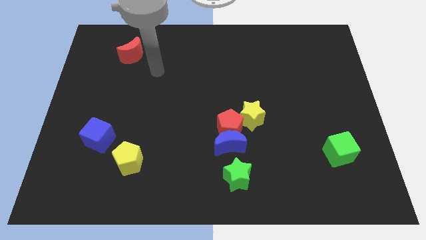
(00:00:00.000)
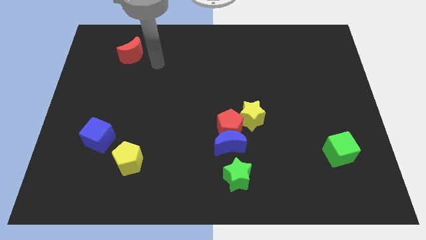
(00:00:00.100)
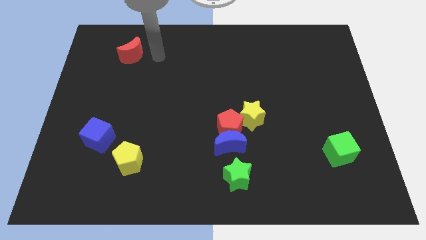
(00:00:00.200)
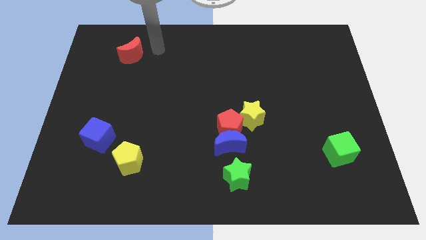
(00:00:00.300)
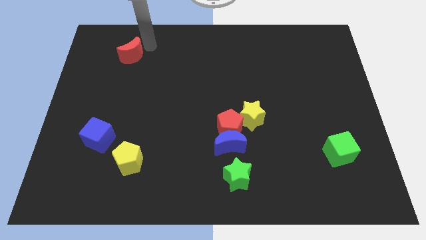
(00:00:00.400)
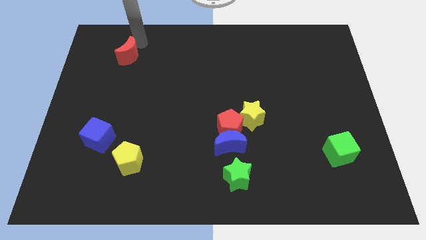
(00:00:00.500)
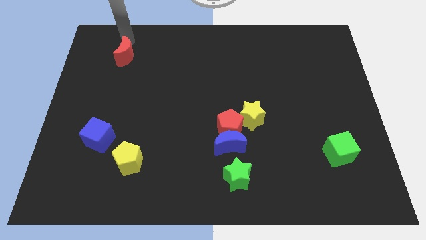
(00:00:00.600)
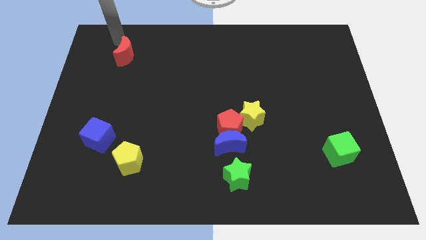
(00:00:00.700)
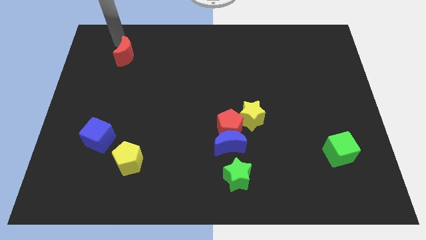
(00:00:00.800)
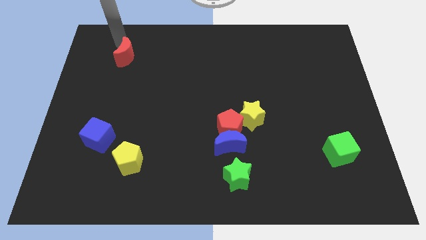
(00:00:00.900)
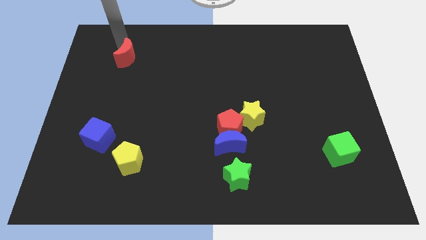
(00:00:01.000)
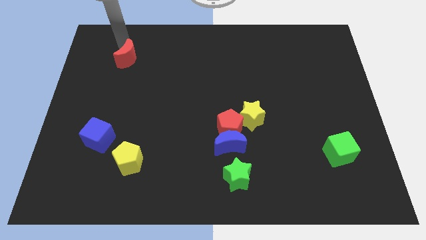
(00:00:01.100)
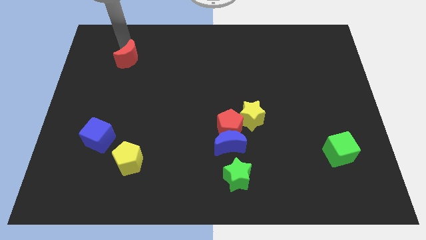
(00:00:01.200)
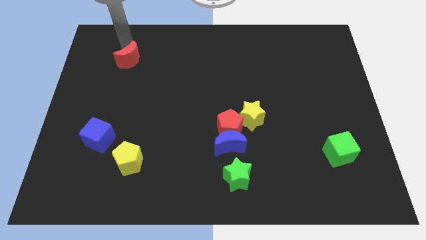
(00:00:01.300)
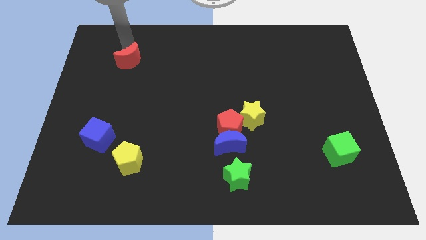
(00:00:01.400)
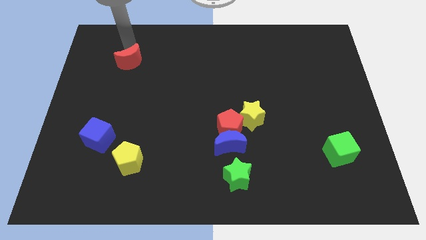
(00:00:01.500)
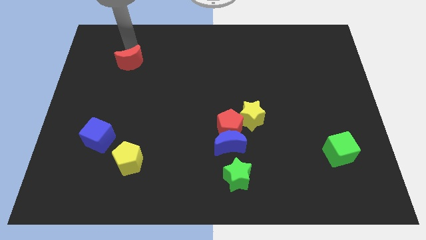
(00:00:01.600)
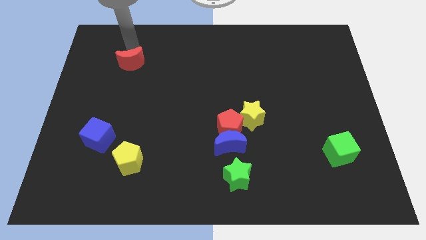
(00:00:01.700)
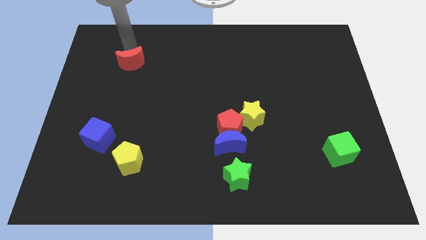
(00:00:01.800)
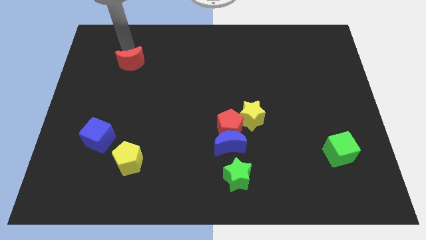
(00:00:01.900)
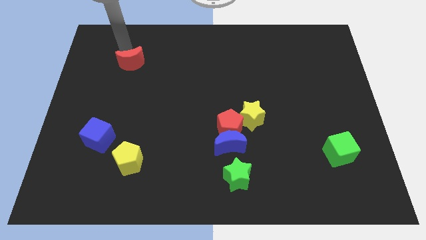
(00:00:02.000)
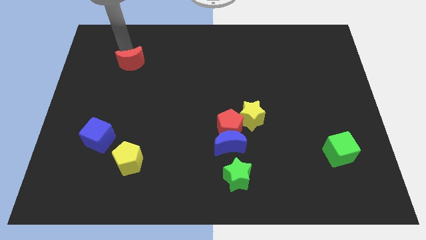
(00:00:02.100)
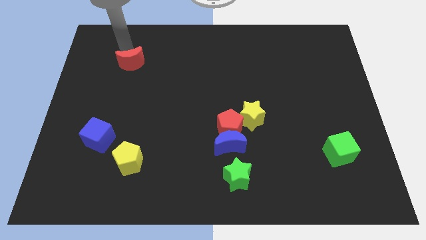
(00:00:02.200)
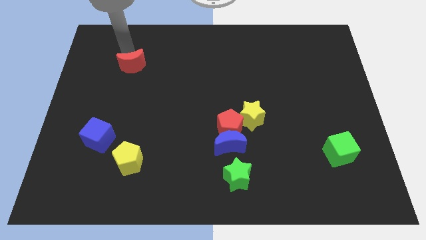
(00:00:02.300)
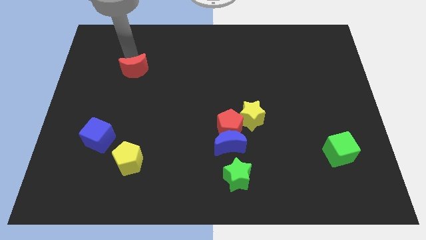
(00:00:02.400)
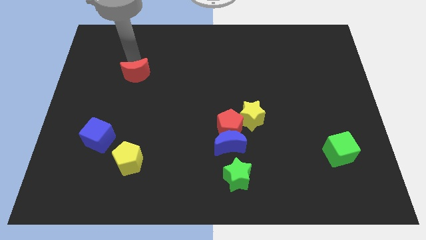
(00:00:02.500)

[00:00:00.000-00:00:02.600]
push the red moon down somewhat

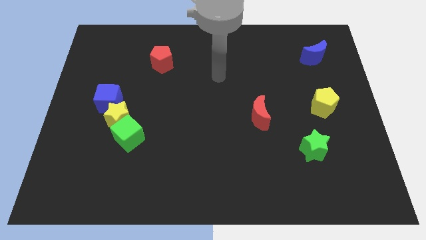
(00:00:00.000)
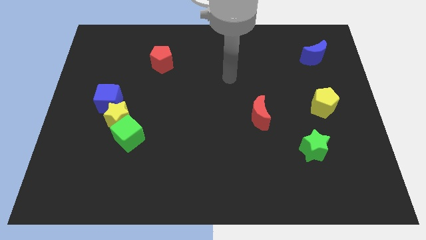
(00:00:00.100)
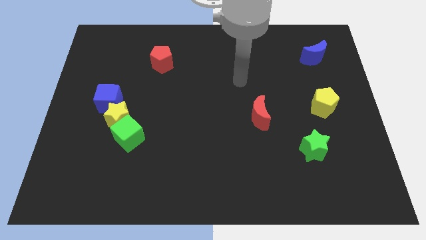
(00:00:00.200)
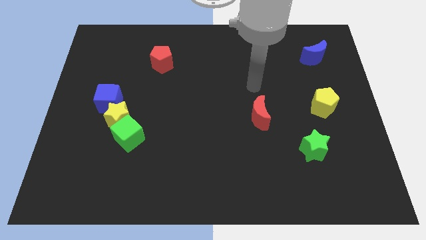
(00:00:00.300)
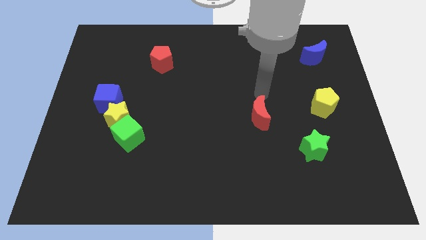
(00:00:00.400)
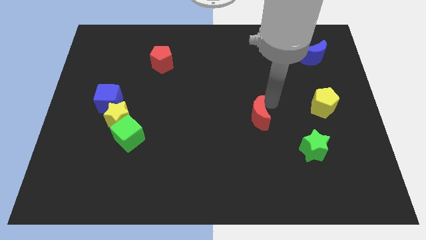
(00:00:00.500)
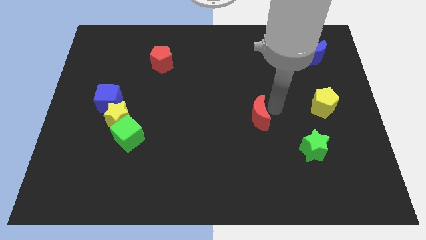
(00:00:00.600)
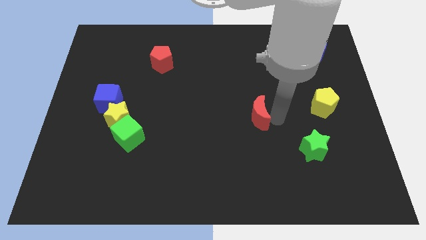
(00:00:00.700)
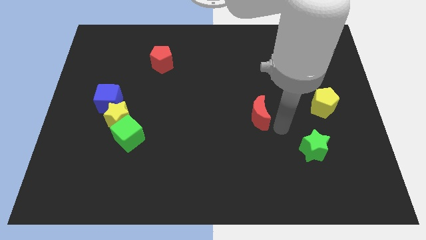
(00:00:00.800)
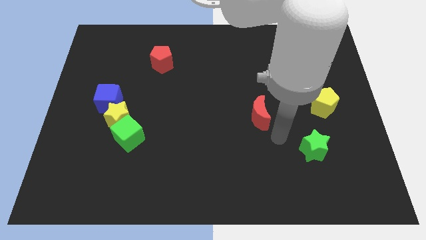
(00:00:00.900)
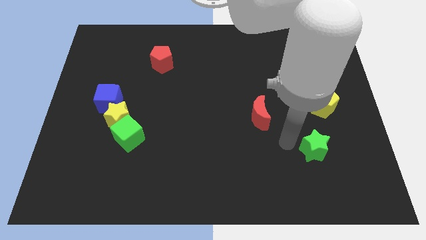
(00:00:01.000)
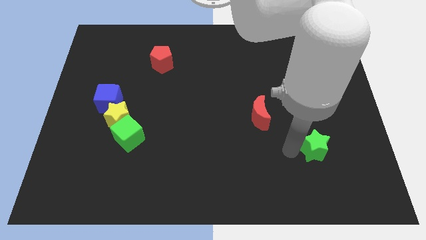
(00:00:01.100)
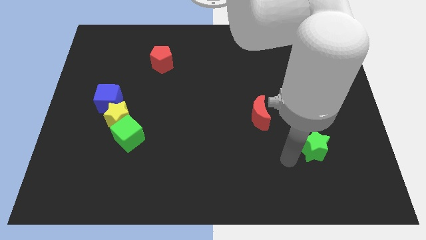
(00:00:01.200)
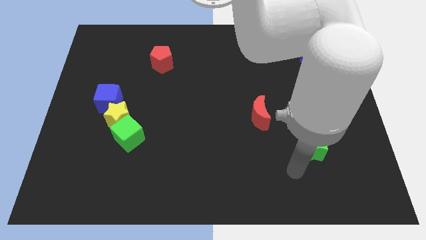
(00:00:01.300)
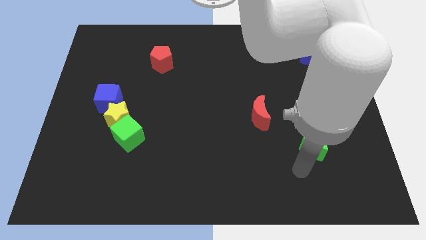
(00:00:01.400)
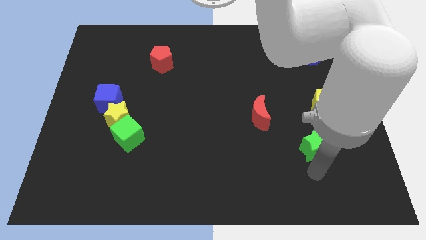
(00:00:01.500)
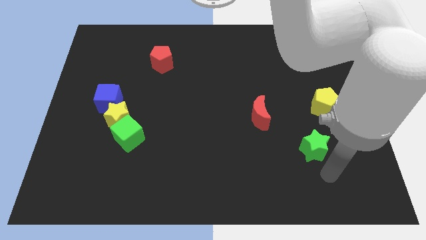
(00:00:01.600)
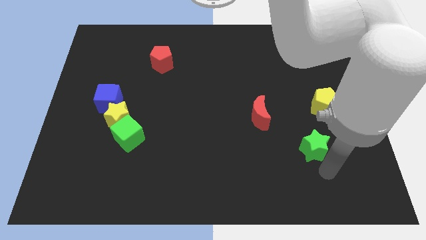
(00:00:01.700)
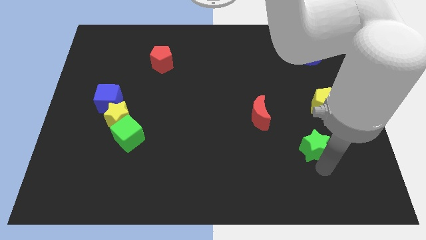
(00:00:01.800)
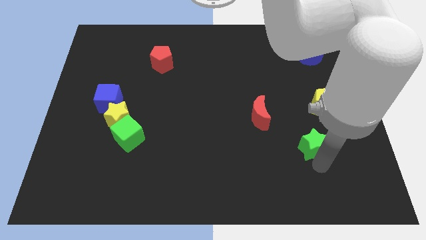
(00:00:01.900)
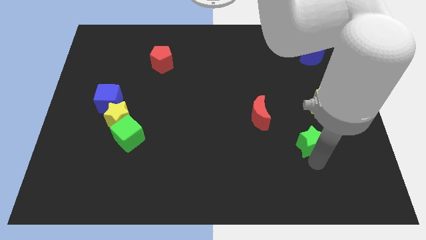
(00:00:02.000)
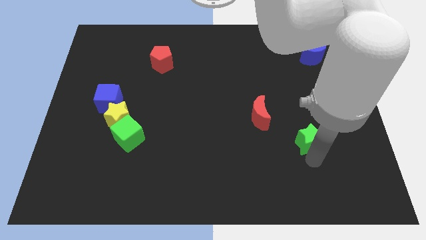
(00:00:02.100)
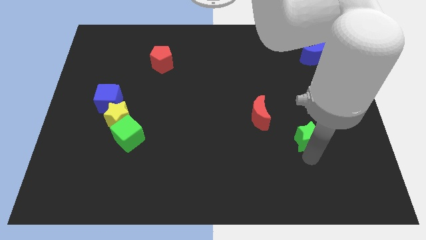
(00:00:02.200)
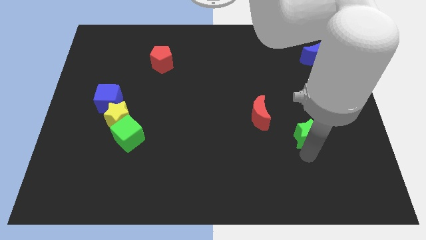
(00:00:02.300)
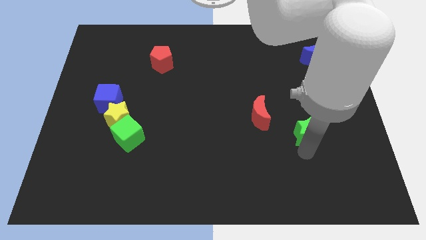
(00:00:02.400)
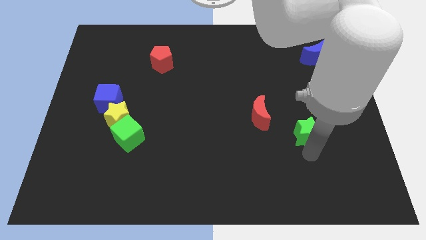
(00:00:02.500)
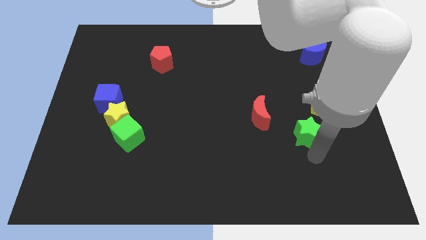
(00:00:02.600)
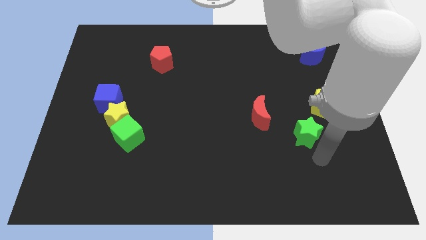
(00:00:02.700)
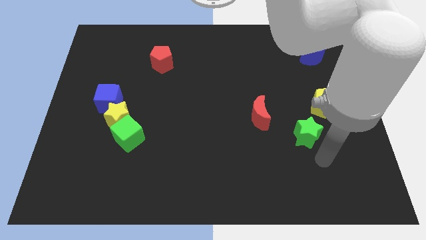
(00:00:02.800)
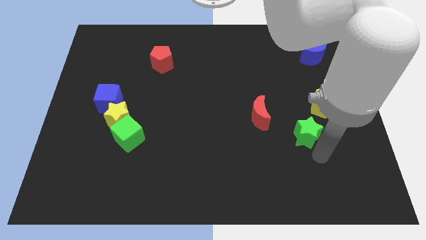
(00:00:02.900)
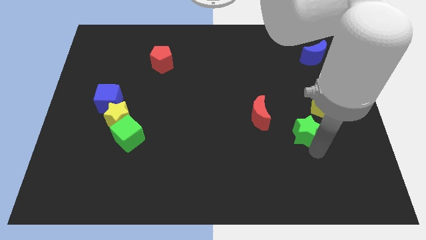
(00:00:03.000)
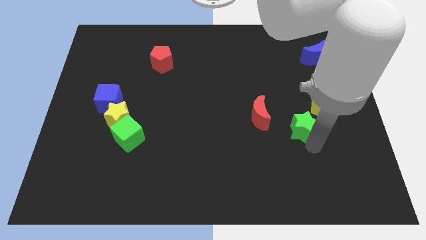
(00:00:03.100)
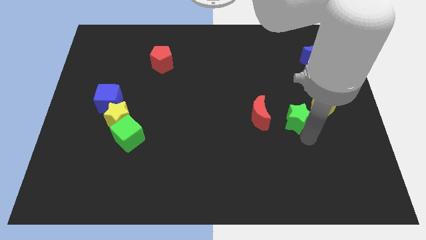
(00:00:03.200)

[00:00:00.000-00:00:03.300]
slide the green star a little bit diagonally up and left

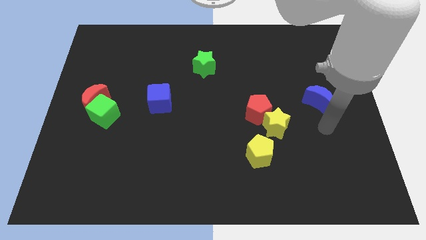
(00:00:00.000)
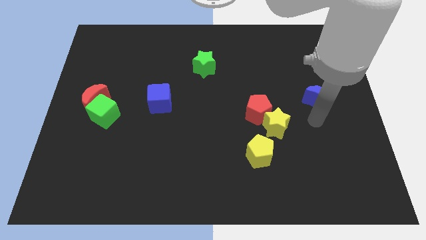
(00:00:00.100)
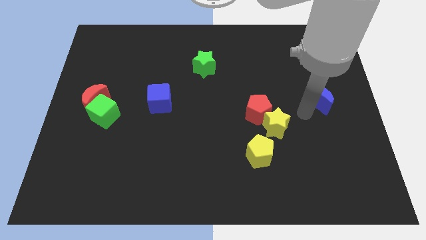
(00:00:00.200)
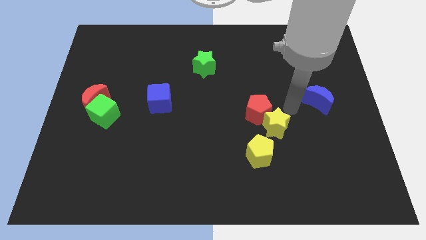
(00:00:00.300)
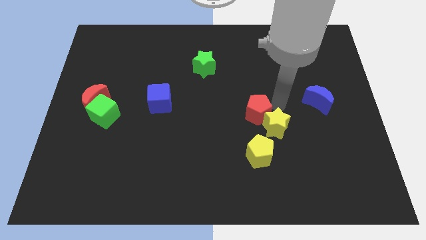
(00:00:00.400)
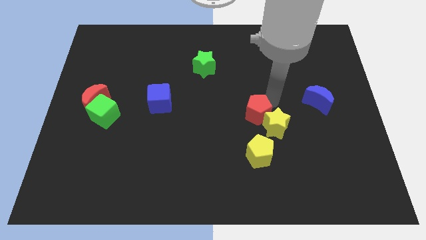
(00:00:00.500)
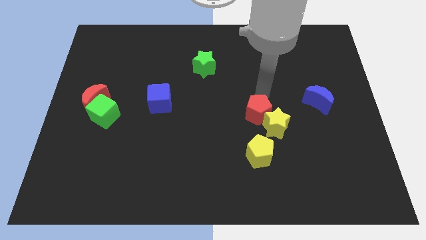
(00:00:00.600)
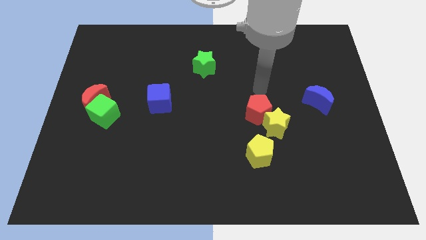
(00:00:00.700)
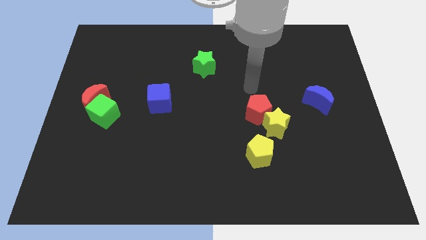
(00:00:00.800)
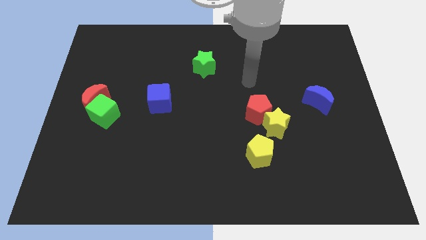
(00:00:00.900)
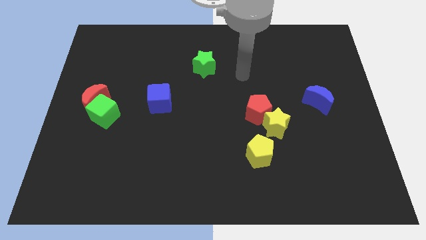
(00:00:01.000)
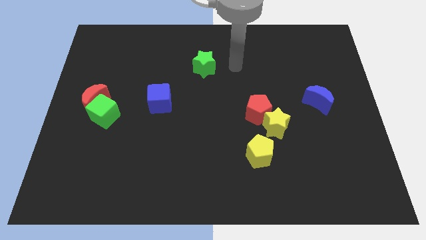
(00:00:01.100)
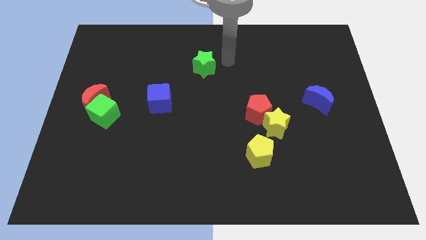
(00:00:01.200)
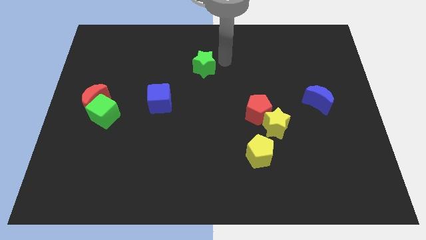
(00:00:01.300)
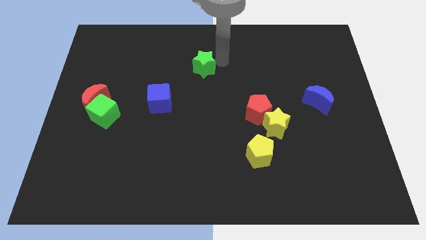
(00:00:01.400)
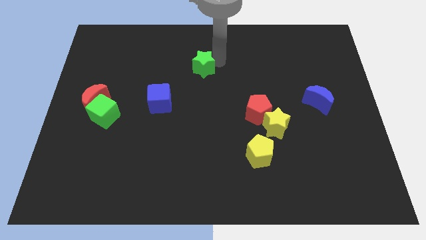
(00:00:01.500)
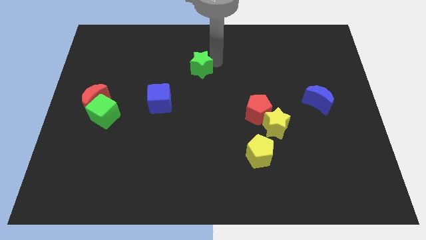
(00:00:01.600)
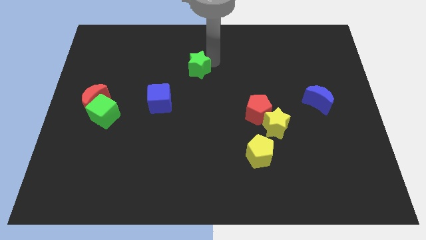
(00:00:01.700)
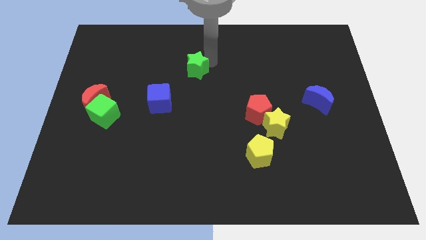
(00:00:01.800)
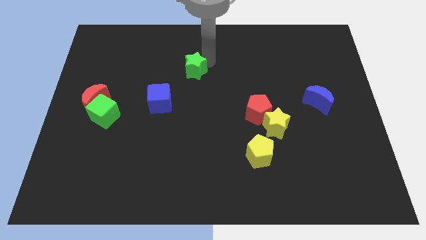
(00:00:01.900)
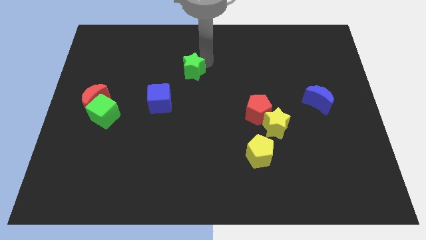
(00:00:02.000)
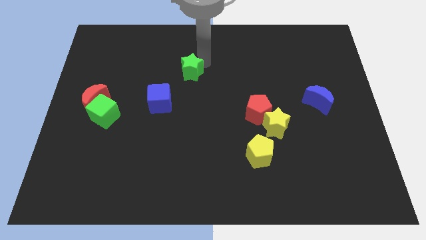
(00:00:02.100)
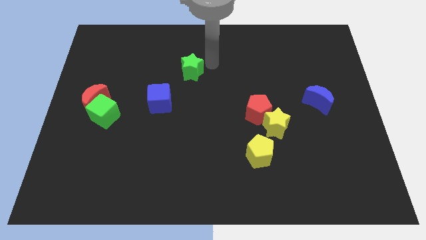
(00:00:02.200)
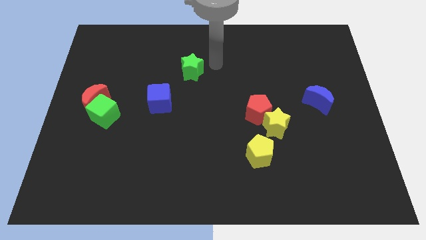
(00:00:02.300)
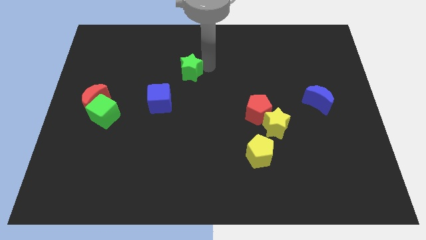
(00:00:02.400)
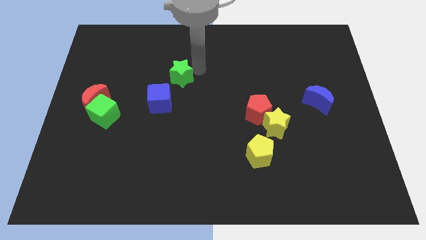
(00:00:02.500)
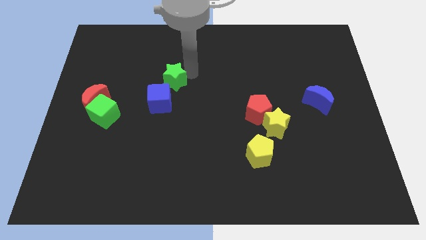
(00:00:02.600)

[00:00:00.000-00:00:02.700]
slightly slide the green star downwards and left diagonally
